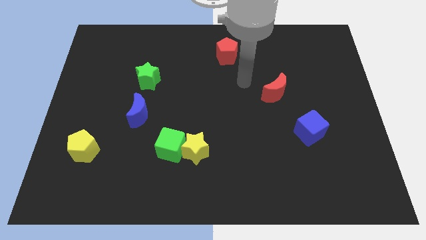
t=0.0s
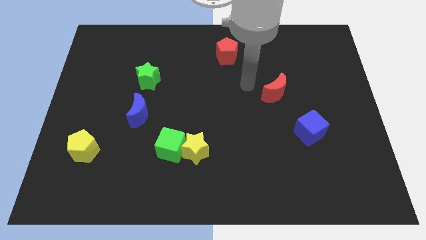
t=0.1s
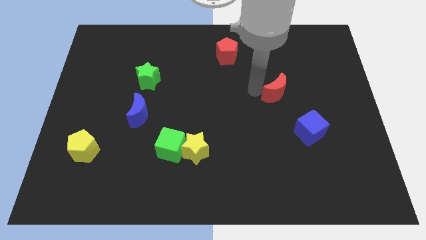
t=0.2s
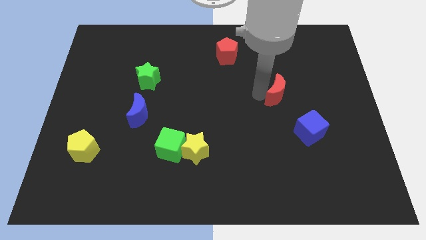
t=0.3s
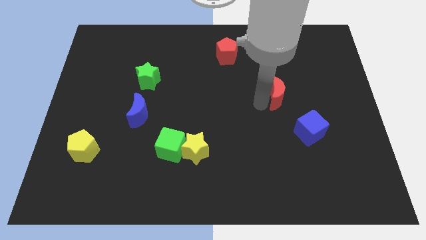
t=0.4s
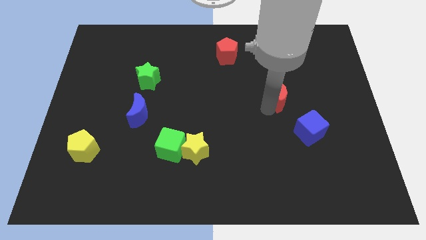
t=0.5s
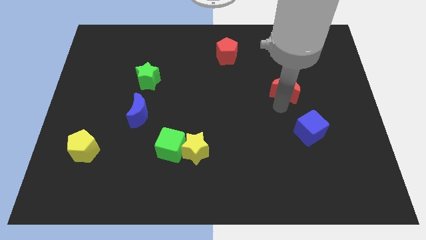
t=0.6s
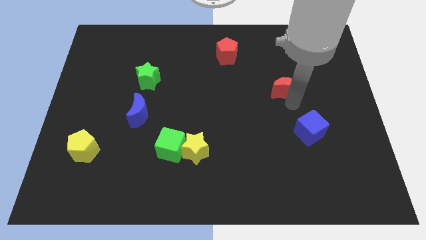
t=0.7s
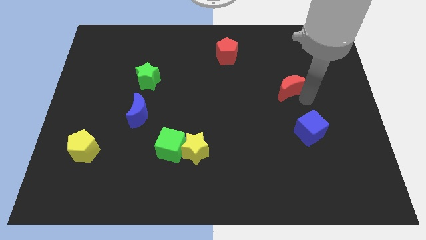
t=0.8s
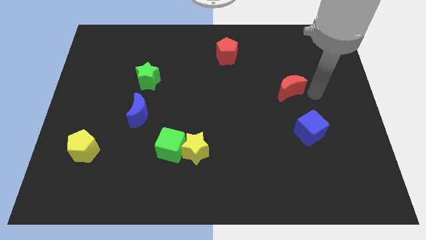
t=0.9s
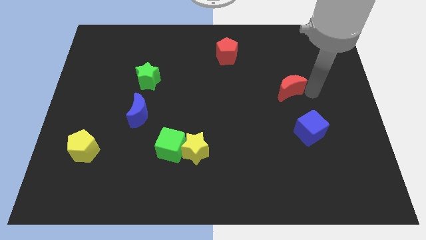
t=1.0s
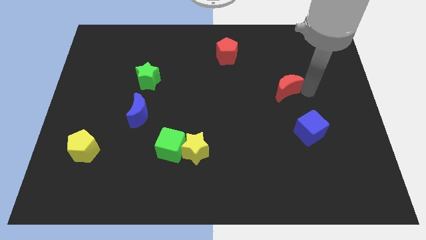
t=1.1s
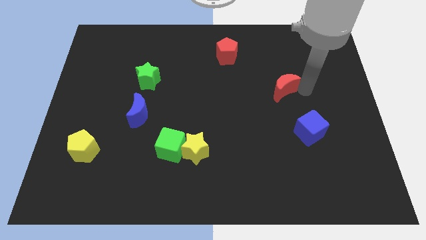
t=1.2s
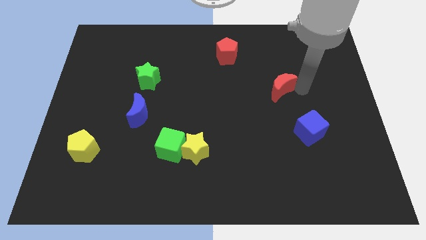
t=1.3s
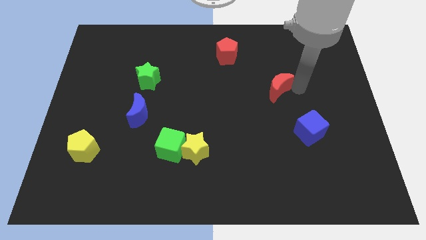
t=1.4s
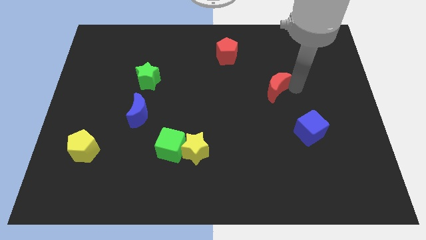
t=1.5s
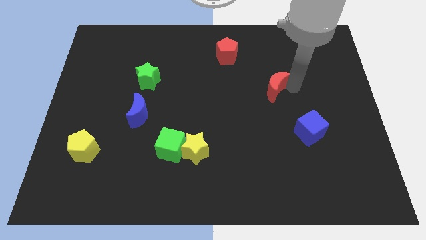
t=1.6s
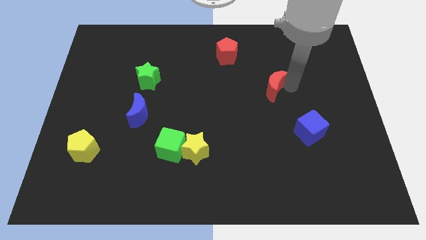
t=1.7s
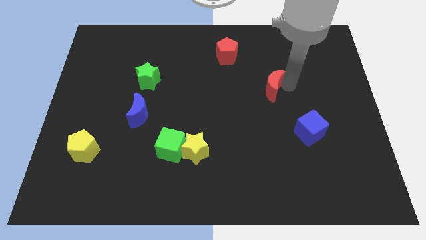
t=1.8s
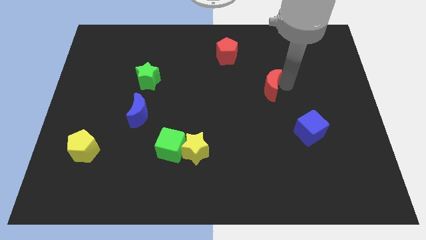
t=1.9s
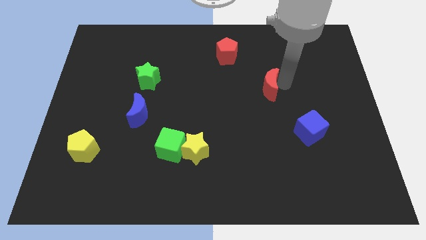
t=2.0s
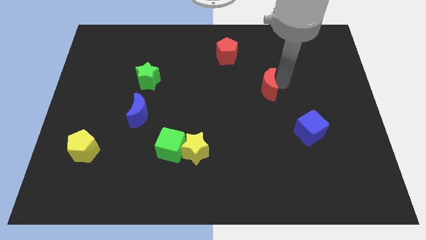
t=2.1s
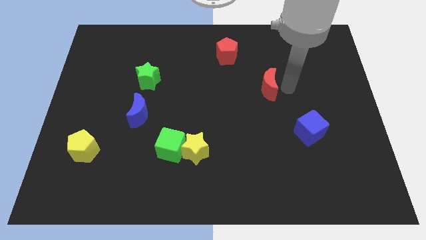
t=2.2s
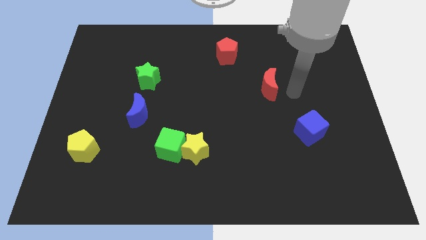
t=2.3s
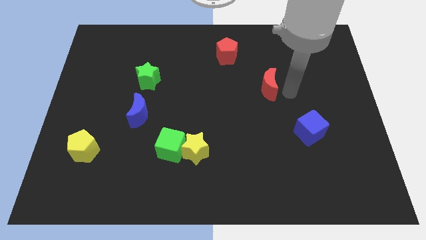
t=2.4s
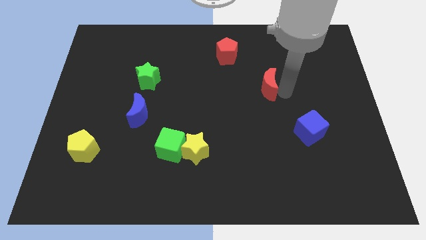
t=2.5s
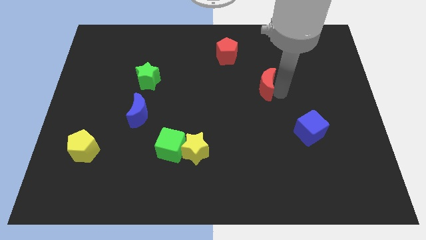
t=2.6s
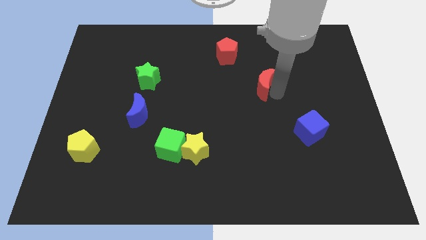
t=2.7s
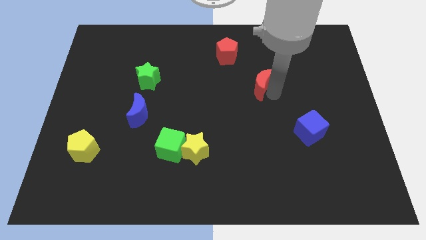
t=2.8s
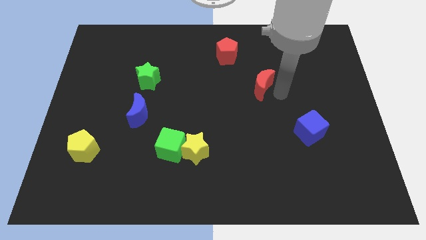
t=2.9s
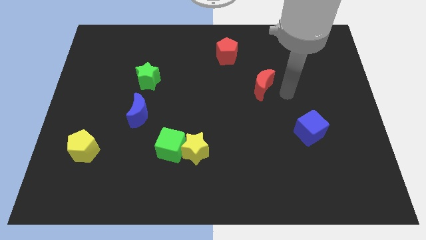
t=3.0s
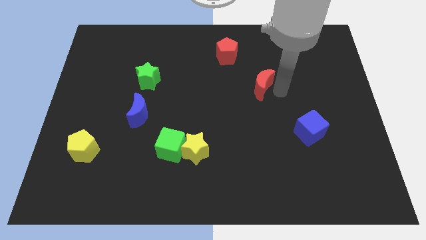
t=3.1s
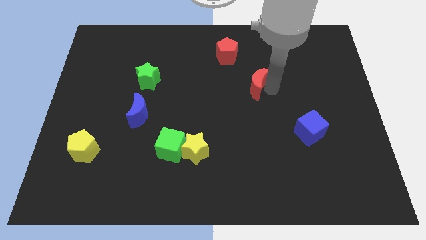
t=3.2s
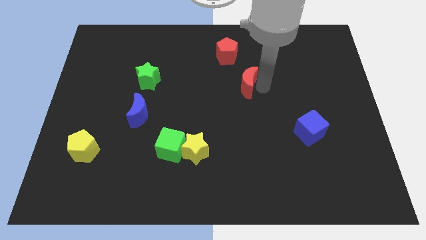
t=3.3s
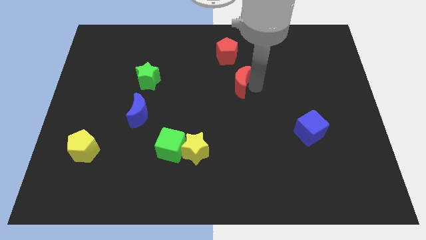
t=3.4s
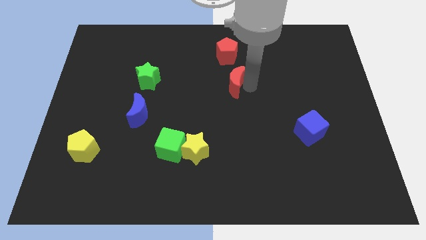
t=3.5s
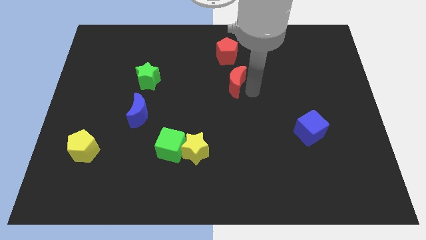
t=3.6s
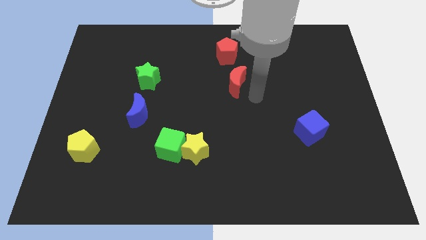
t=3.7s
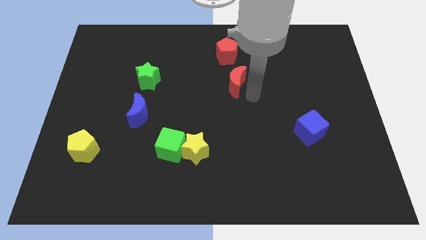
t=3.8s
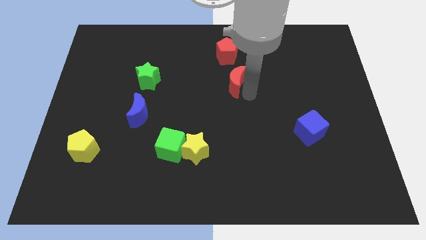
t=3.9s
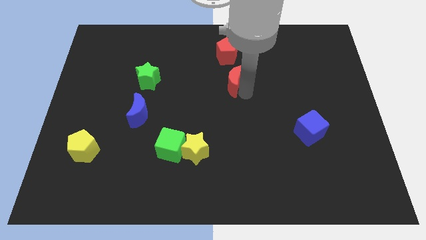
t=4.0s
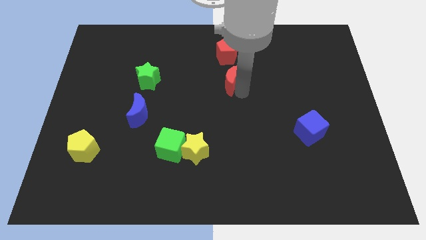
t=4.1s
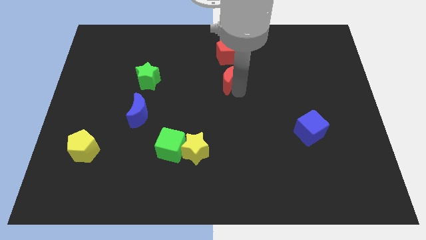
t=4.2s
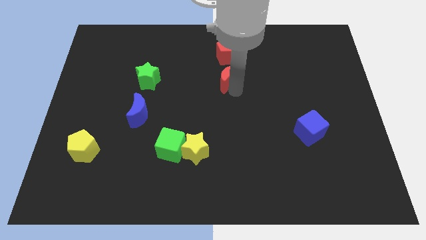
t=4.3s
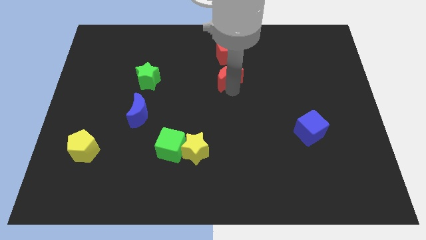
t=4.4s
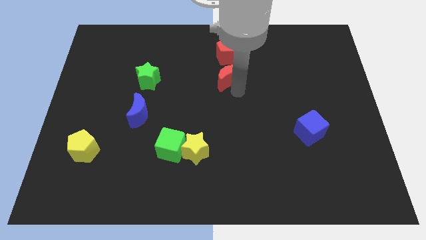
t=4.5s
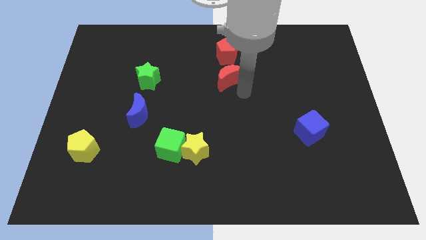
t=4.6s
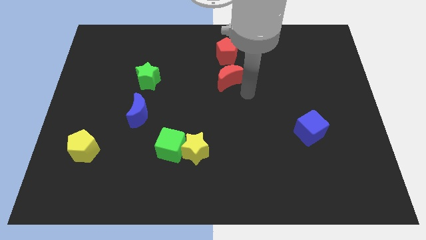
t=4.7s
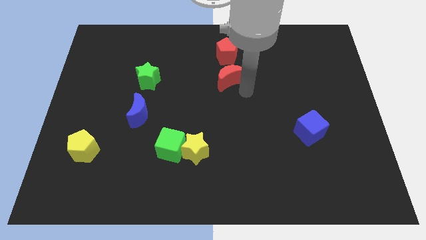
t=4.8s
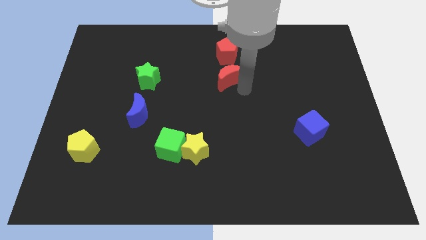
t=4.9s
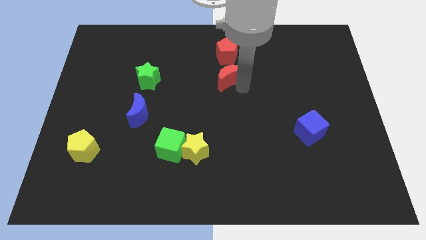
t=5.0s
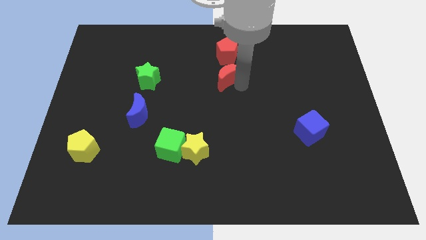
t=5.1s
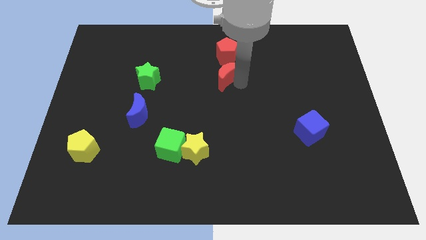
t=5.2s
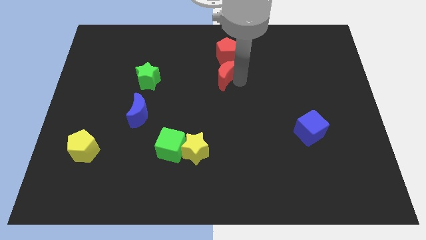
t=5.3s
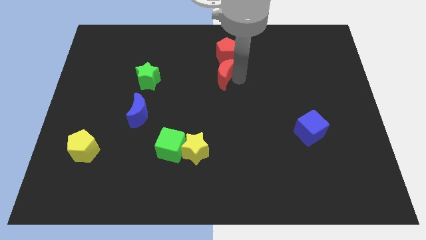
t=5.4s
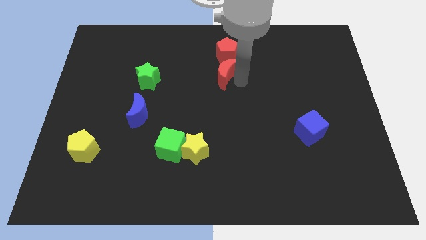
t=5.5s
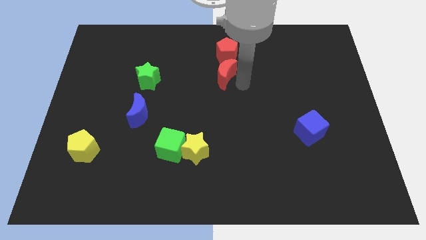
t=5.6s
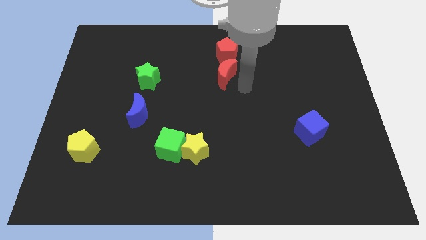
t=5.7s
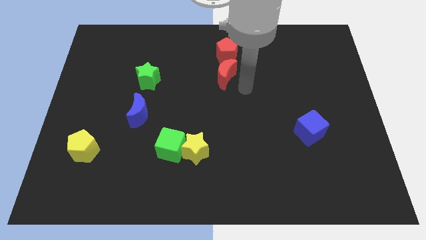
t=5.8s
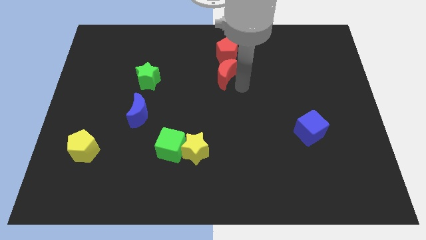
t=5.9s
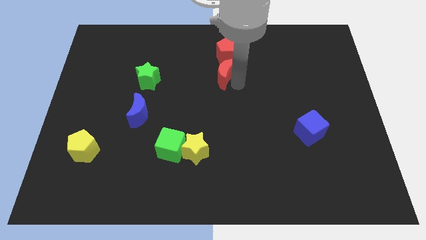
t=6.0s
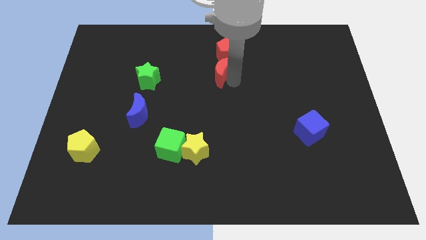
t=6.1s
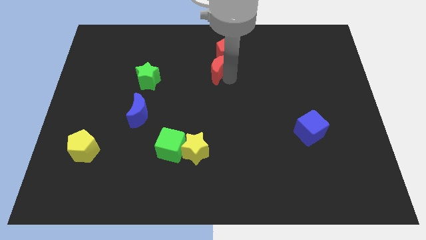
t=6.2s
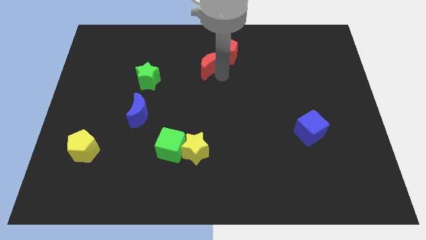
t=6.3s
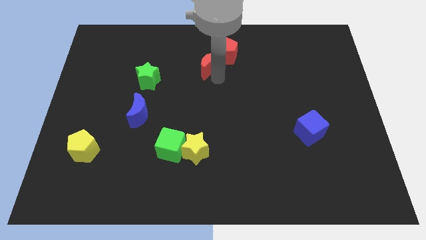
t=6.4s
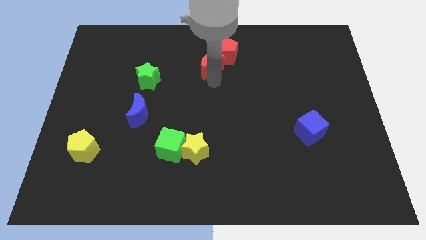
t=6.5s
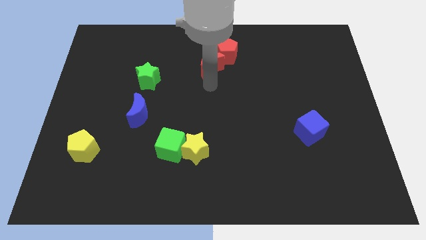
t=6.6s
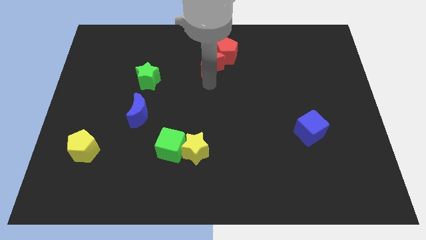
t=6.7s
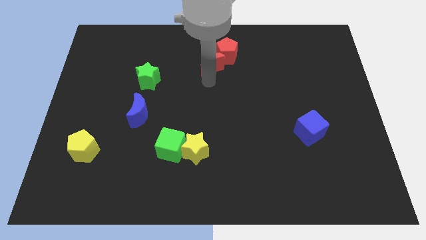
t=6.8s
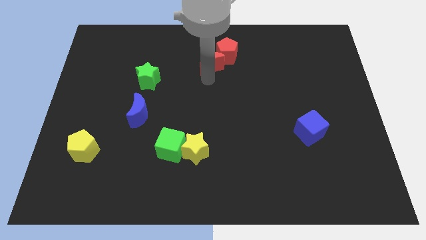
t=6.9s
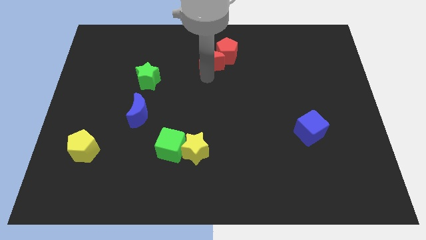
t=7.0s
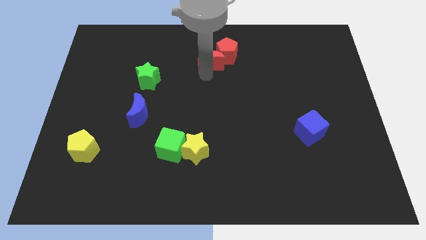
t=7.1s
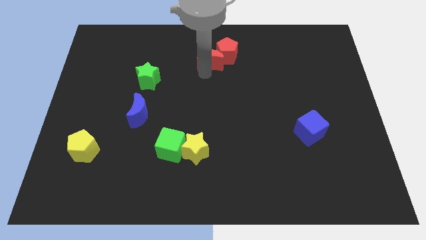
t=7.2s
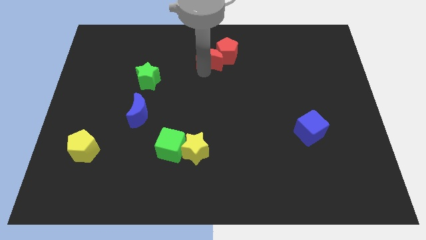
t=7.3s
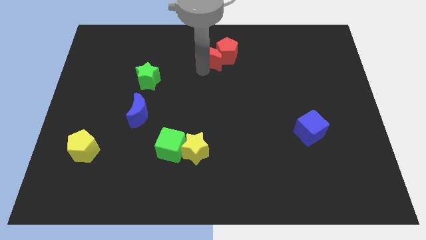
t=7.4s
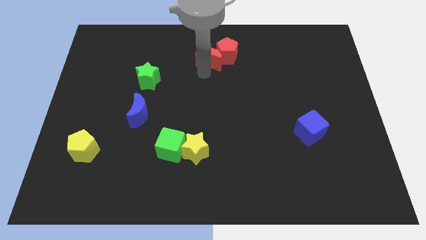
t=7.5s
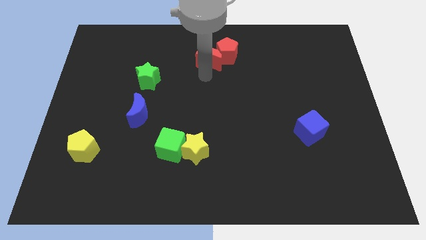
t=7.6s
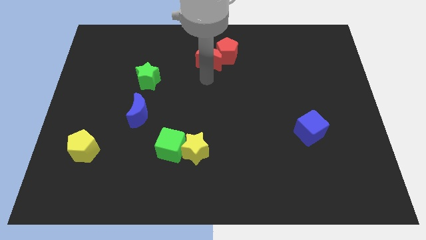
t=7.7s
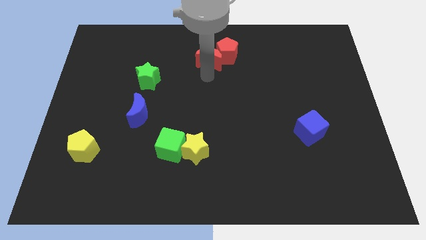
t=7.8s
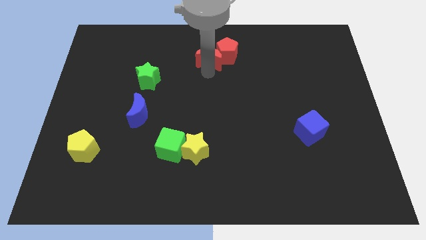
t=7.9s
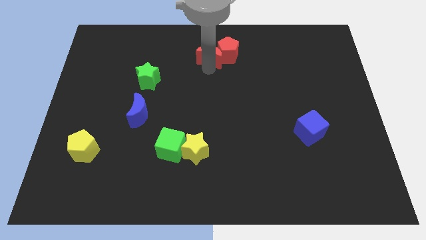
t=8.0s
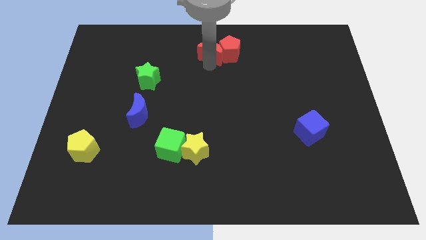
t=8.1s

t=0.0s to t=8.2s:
move the red moon to the towards your base
